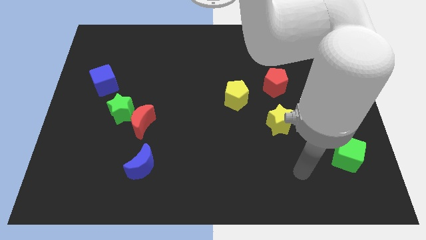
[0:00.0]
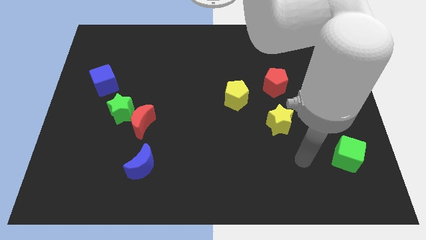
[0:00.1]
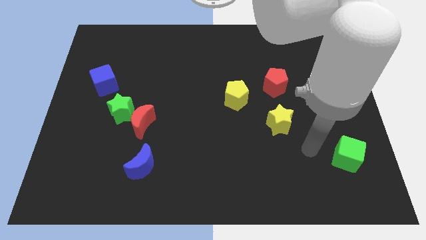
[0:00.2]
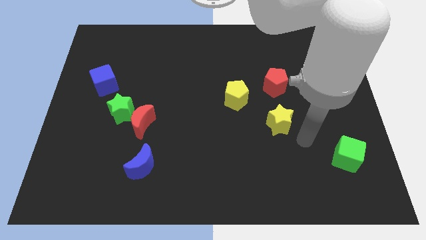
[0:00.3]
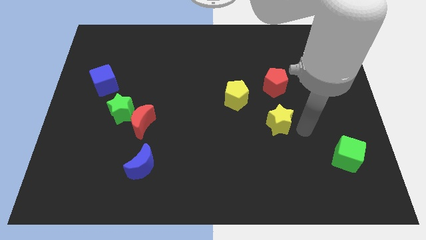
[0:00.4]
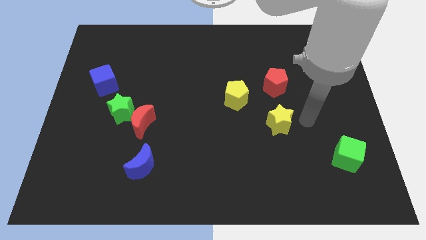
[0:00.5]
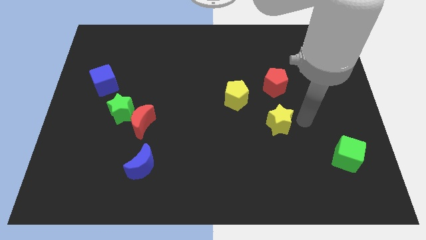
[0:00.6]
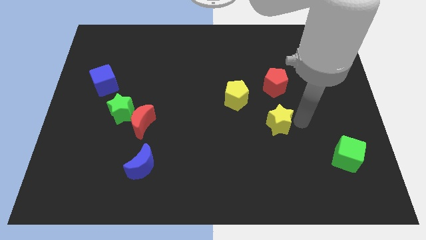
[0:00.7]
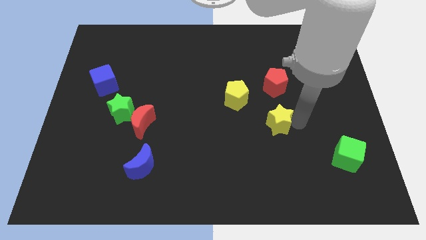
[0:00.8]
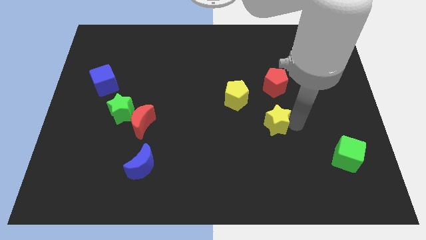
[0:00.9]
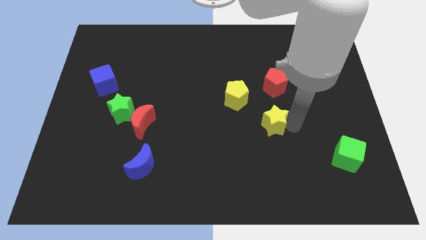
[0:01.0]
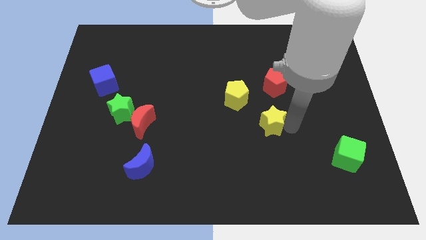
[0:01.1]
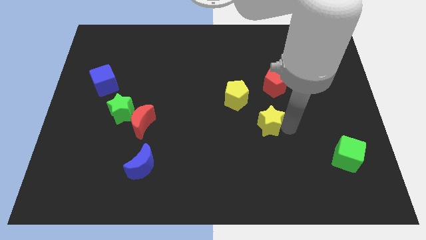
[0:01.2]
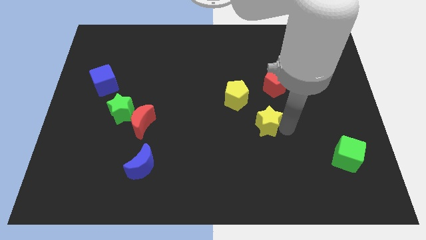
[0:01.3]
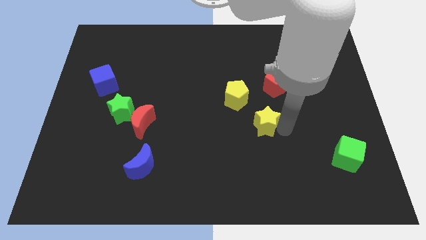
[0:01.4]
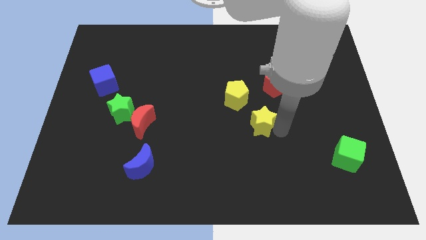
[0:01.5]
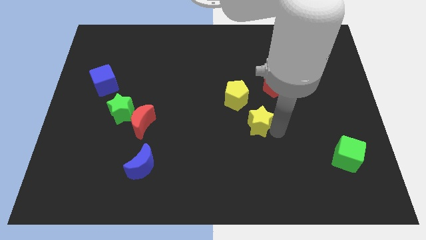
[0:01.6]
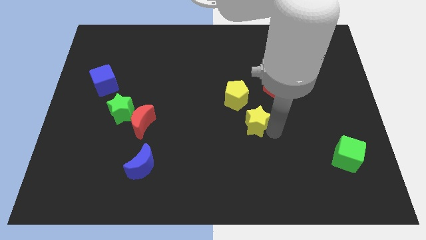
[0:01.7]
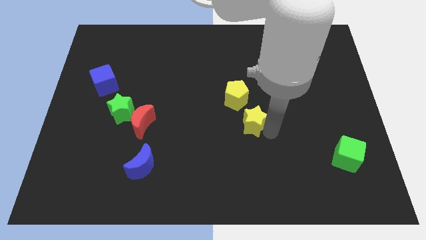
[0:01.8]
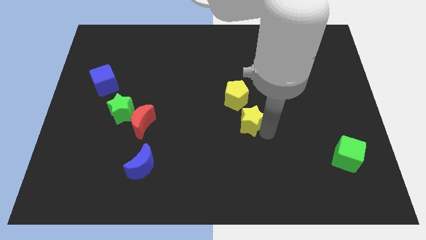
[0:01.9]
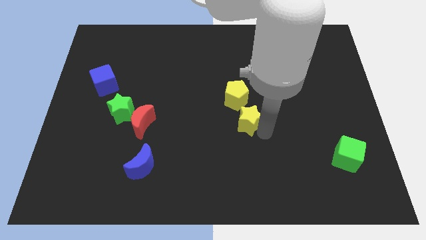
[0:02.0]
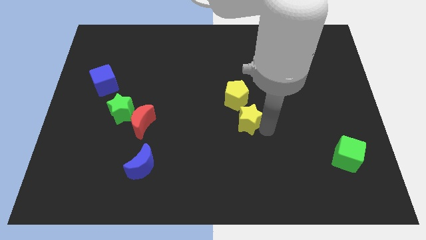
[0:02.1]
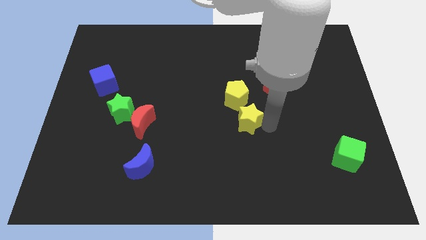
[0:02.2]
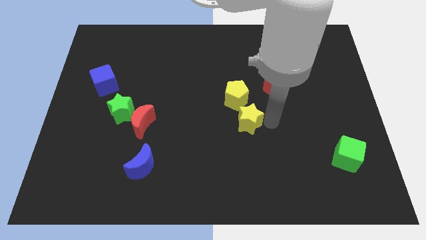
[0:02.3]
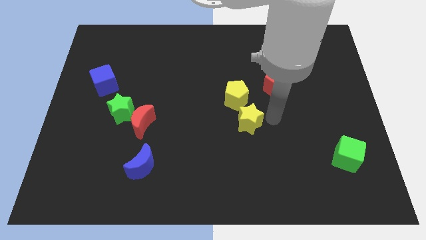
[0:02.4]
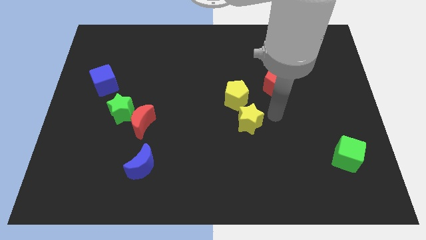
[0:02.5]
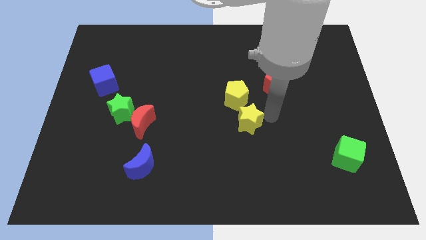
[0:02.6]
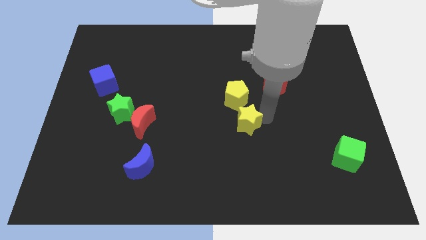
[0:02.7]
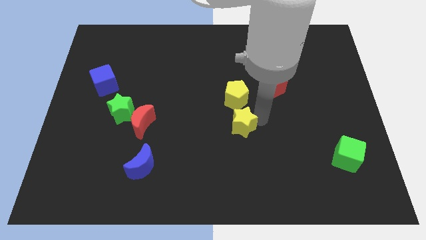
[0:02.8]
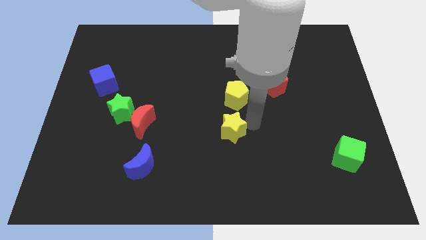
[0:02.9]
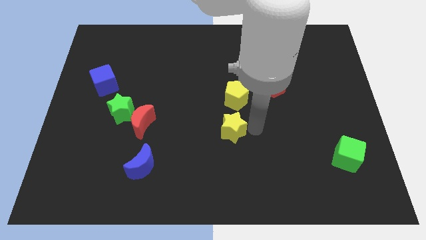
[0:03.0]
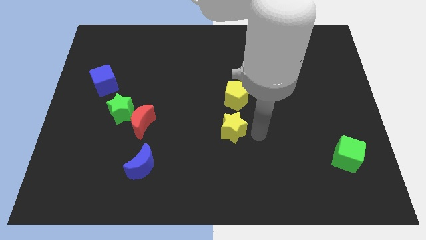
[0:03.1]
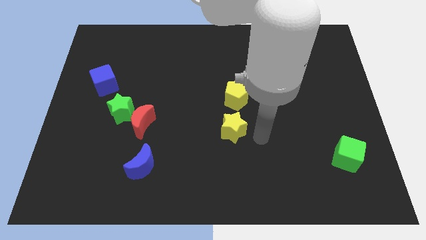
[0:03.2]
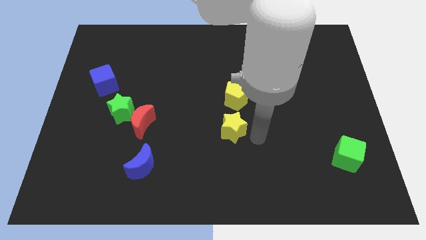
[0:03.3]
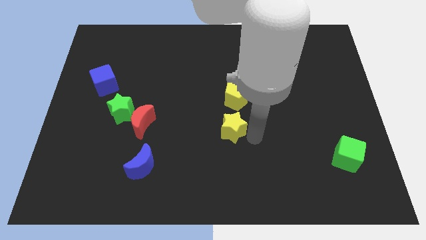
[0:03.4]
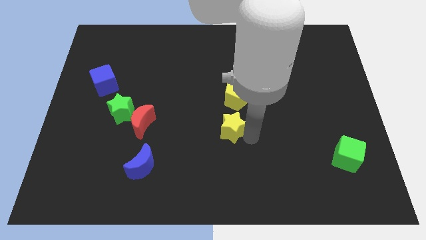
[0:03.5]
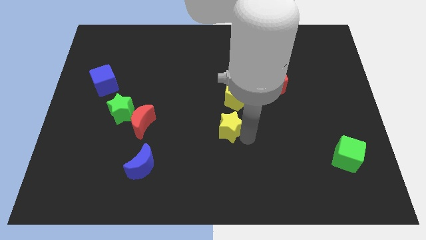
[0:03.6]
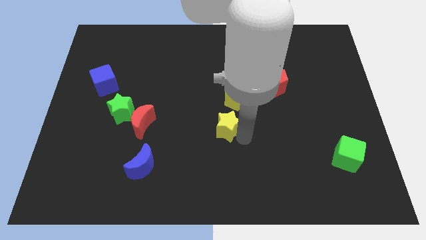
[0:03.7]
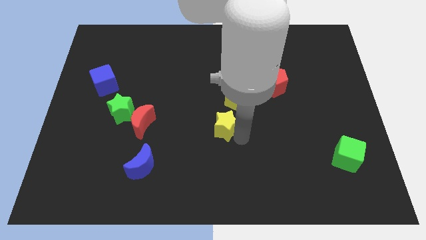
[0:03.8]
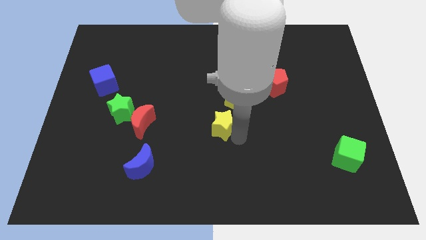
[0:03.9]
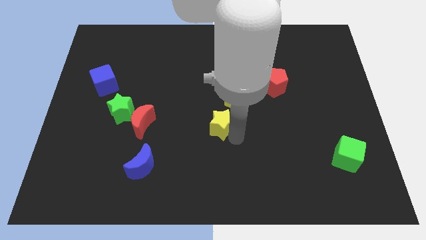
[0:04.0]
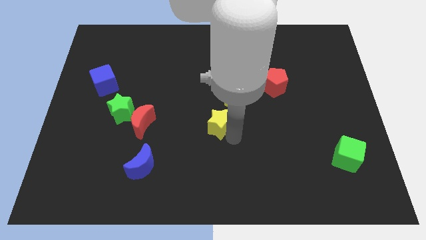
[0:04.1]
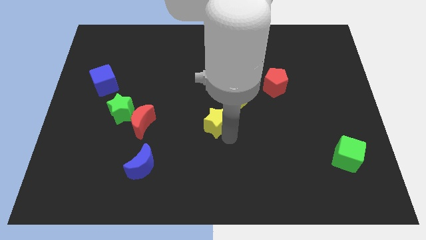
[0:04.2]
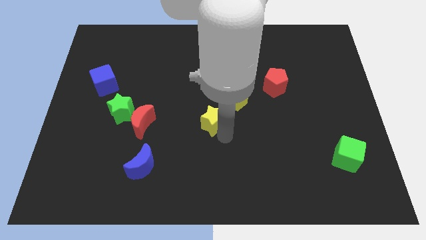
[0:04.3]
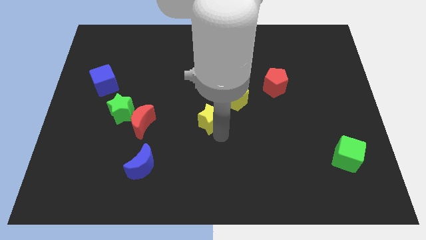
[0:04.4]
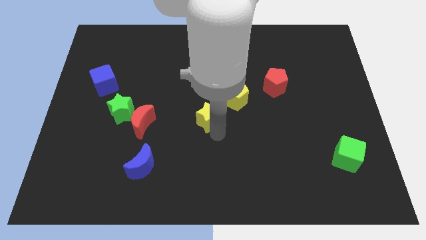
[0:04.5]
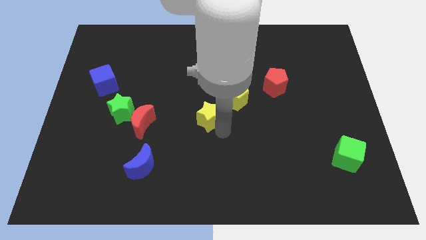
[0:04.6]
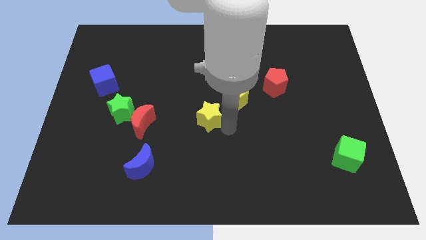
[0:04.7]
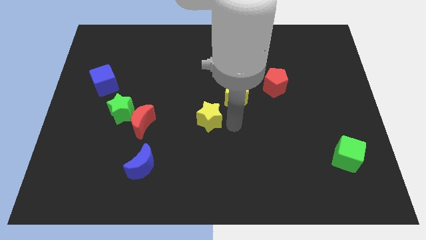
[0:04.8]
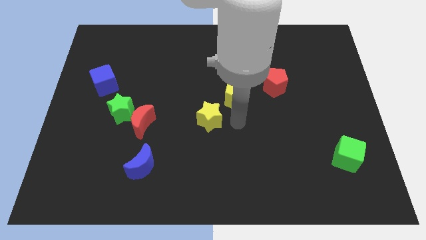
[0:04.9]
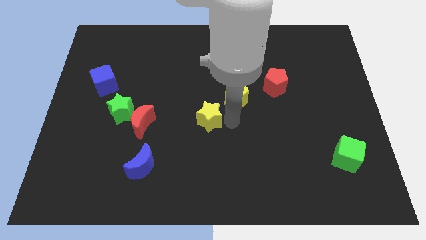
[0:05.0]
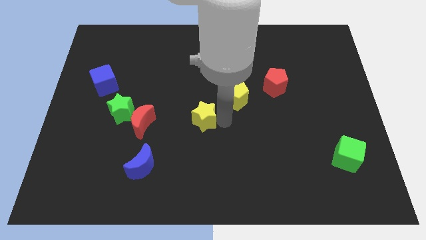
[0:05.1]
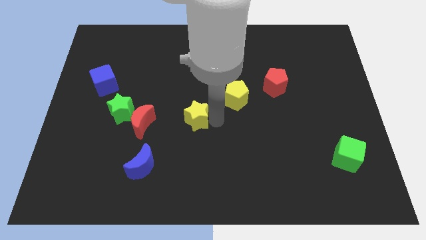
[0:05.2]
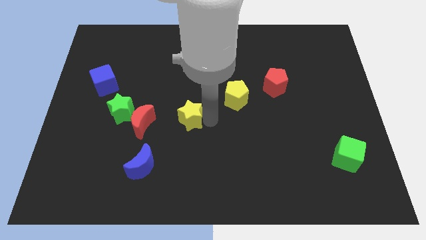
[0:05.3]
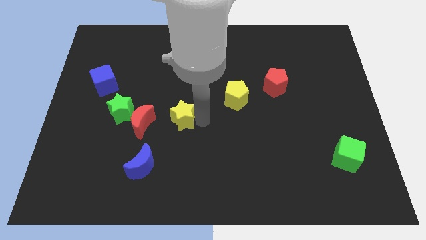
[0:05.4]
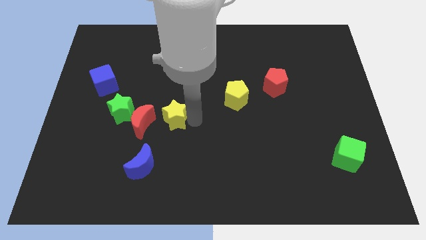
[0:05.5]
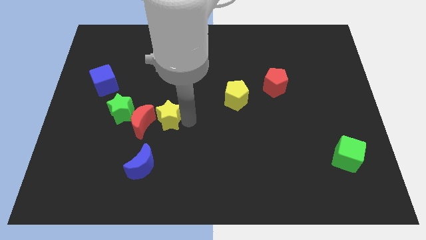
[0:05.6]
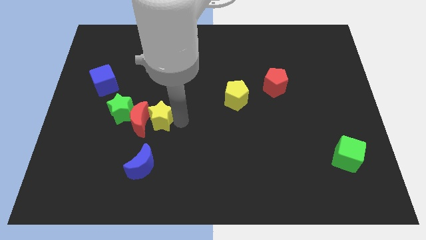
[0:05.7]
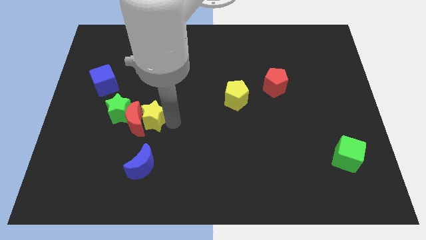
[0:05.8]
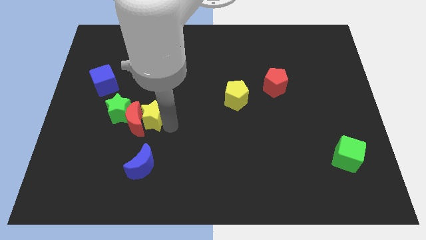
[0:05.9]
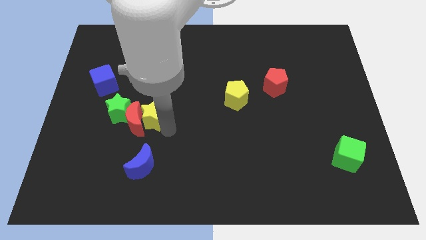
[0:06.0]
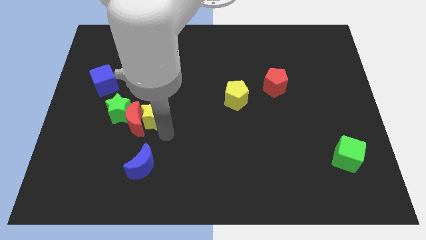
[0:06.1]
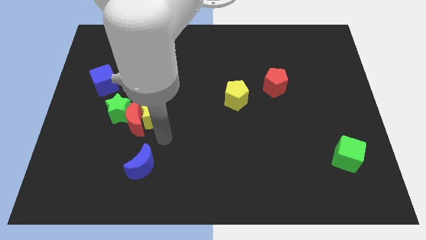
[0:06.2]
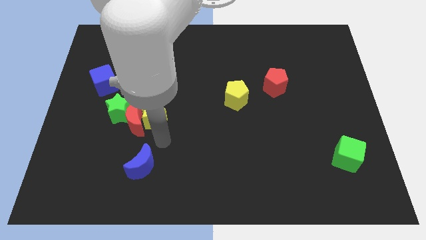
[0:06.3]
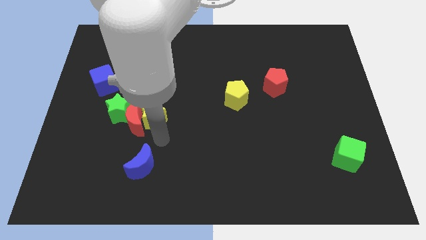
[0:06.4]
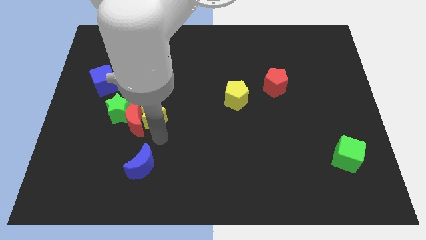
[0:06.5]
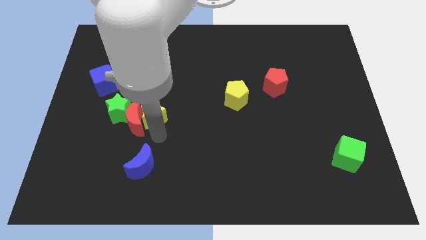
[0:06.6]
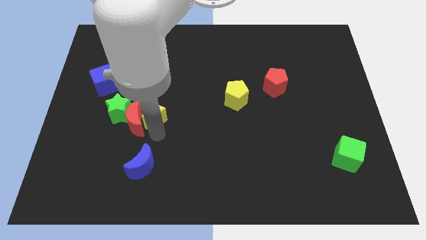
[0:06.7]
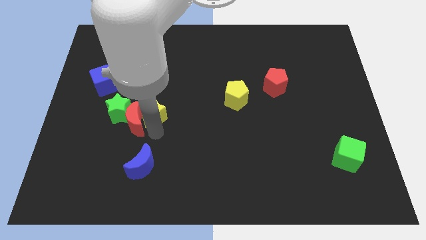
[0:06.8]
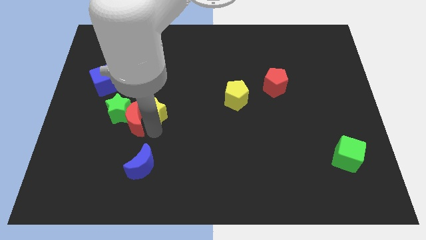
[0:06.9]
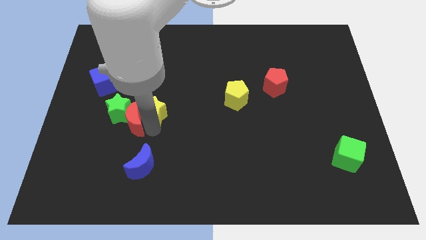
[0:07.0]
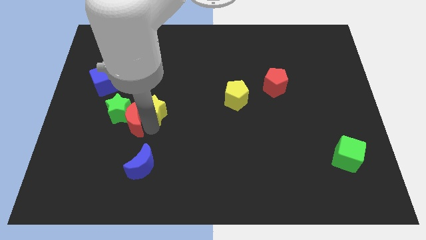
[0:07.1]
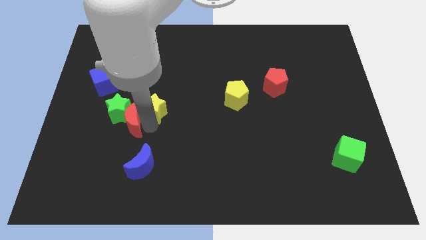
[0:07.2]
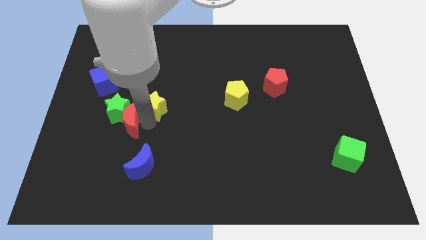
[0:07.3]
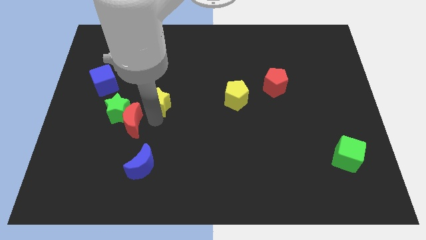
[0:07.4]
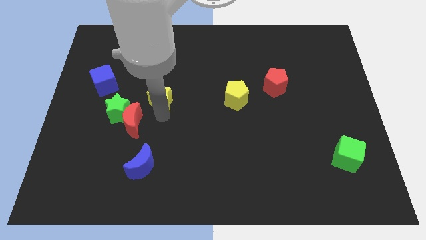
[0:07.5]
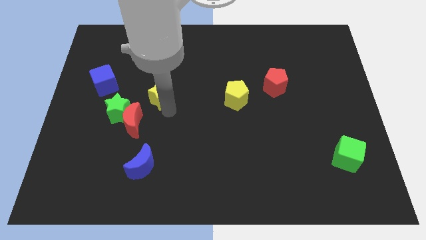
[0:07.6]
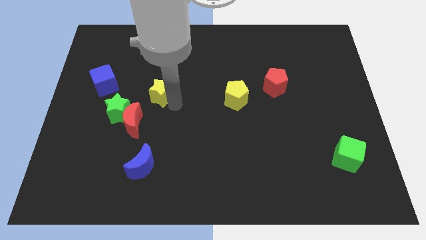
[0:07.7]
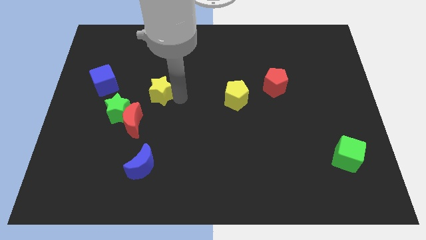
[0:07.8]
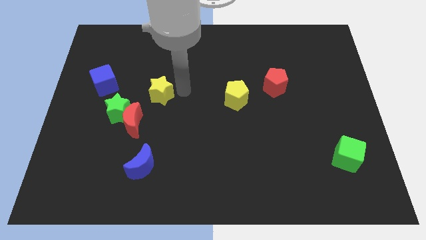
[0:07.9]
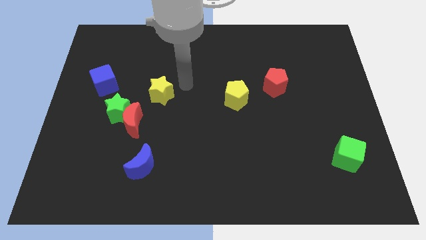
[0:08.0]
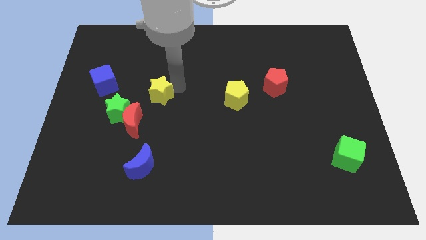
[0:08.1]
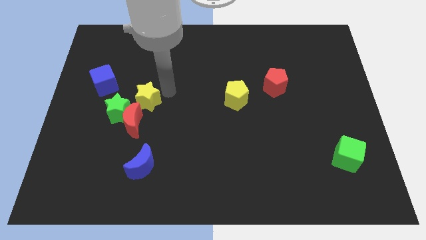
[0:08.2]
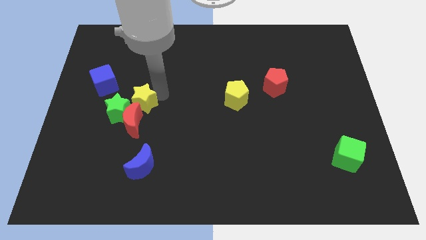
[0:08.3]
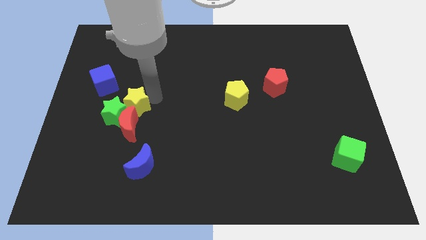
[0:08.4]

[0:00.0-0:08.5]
put the yellow star towards the green star
